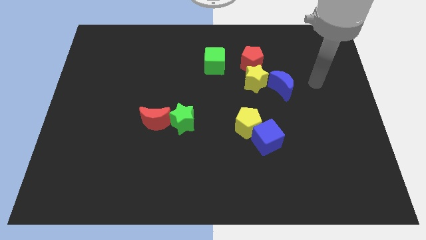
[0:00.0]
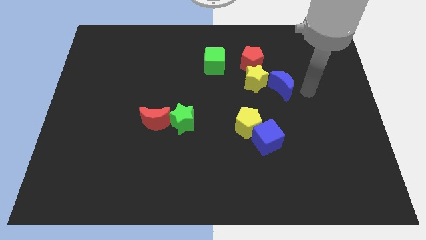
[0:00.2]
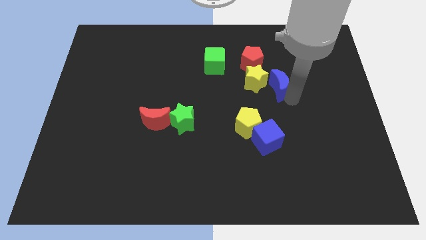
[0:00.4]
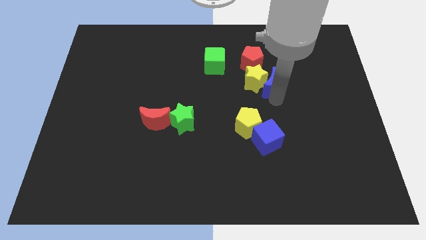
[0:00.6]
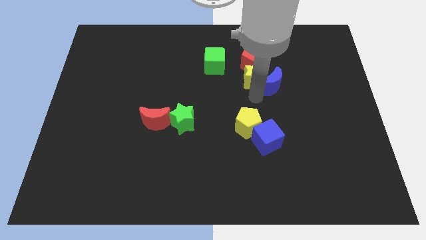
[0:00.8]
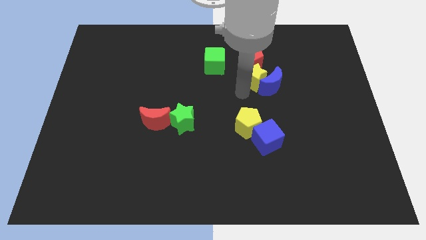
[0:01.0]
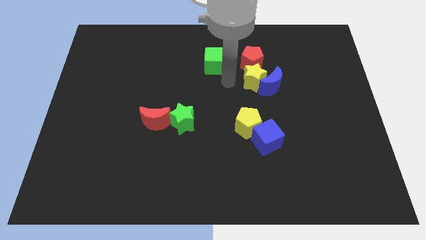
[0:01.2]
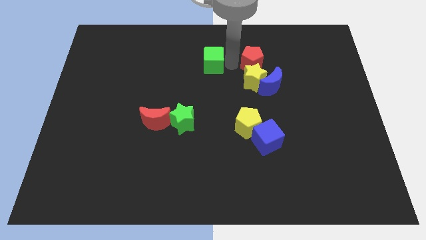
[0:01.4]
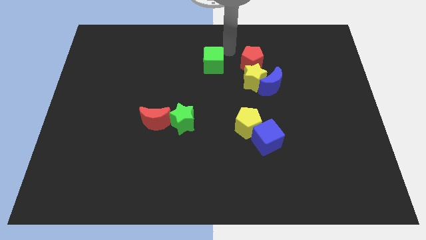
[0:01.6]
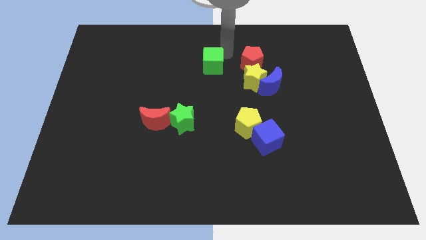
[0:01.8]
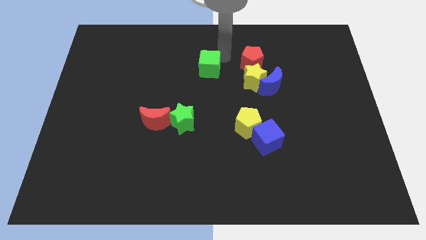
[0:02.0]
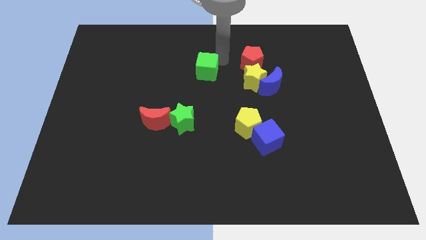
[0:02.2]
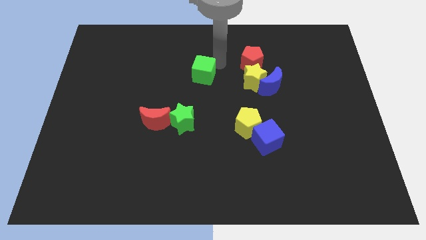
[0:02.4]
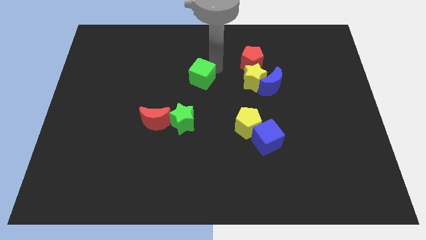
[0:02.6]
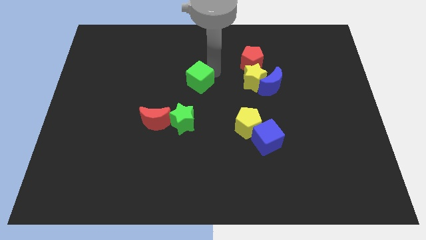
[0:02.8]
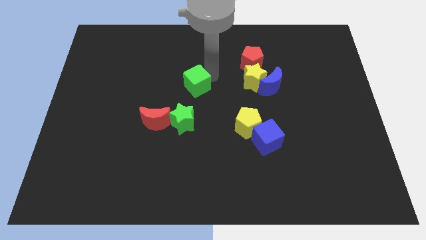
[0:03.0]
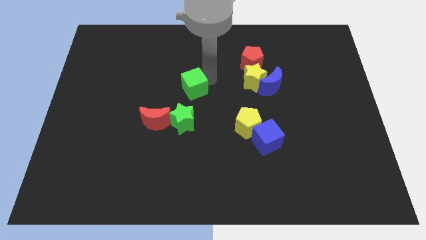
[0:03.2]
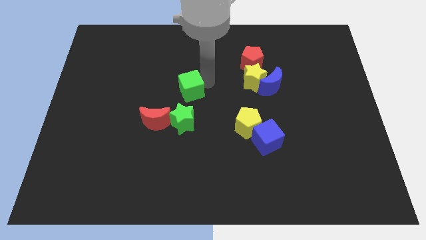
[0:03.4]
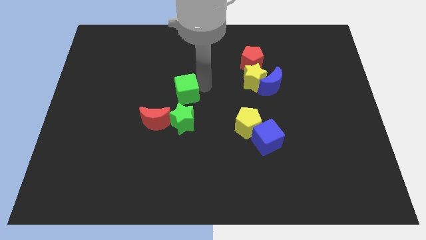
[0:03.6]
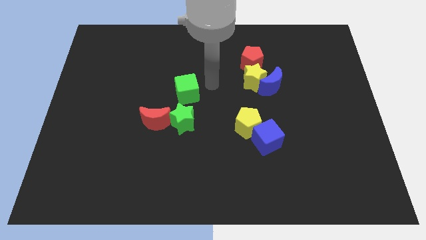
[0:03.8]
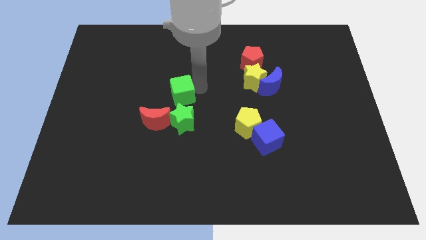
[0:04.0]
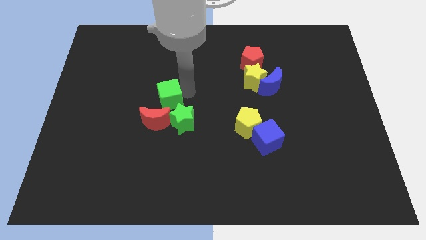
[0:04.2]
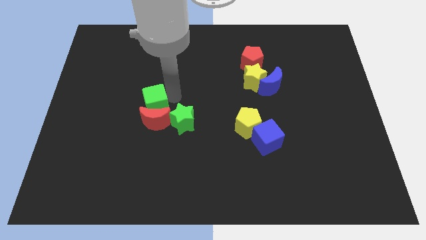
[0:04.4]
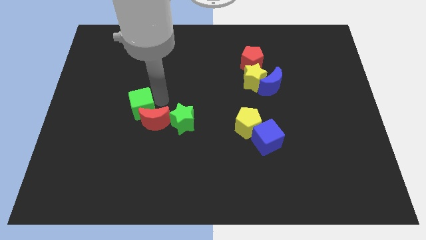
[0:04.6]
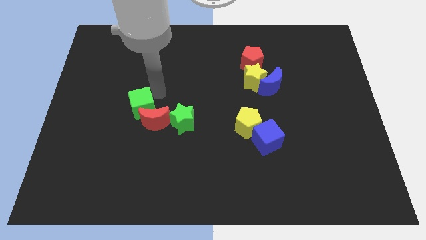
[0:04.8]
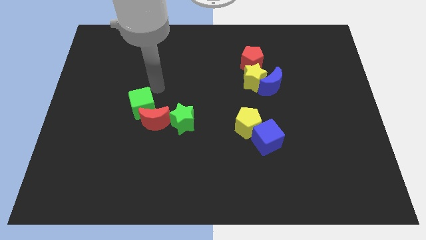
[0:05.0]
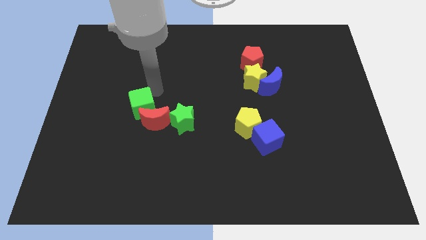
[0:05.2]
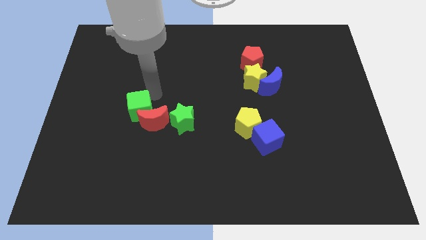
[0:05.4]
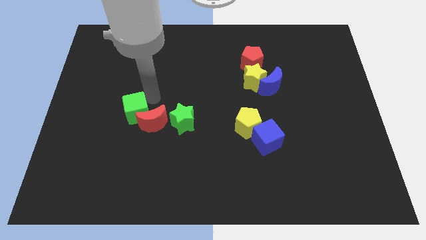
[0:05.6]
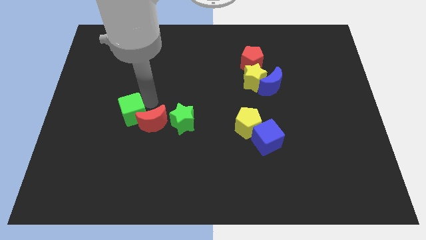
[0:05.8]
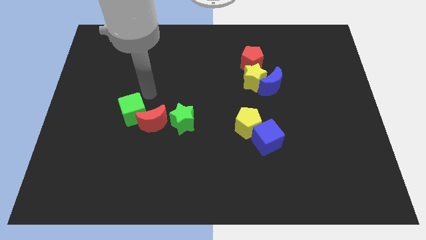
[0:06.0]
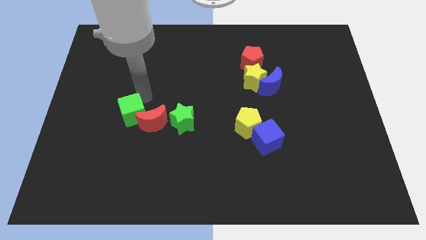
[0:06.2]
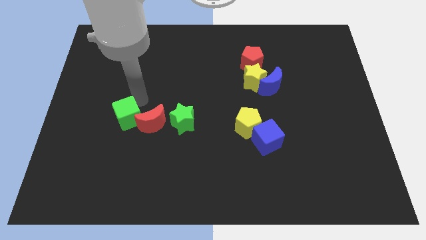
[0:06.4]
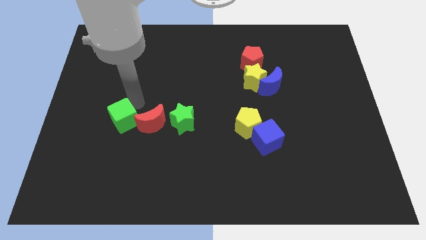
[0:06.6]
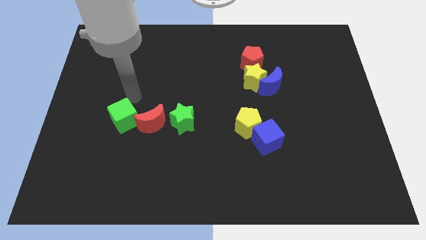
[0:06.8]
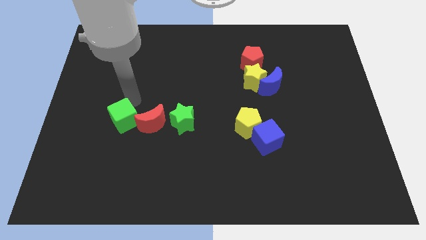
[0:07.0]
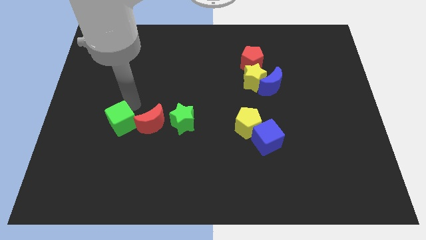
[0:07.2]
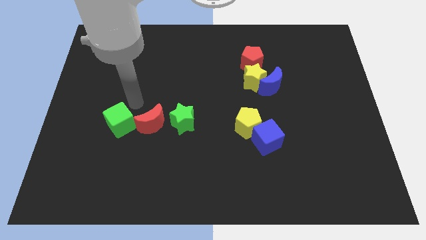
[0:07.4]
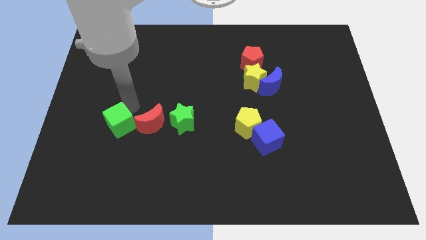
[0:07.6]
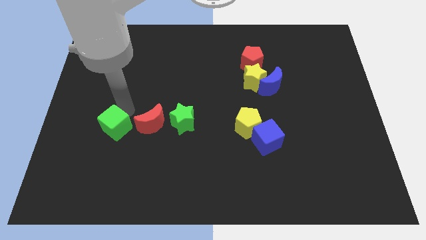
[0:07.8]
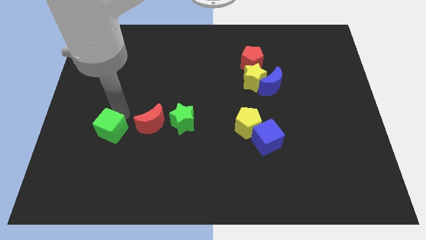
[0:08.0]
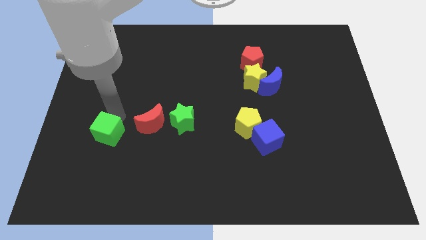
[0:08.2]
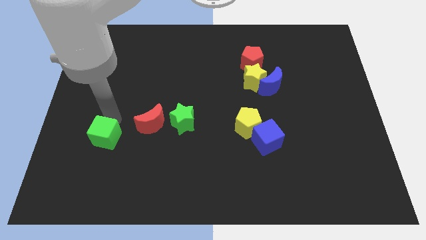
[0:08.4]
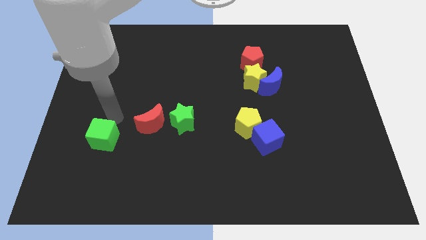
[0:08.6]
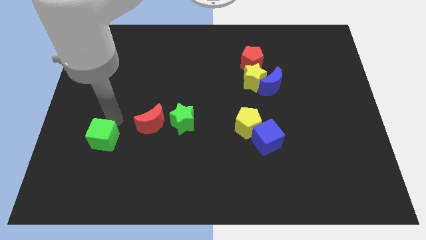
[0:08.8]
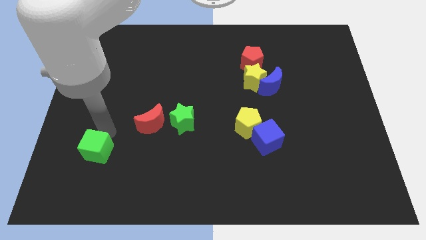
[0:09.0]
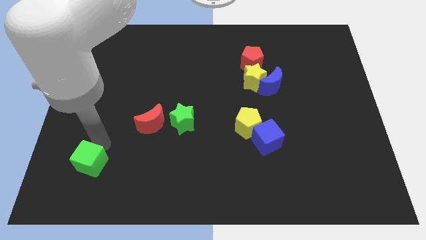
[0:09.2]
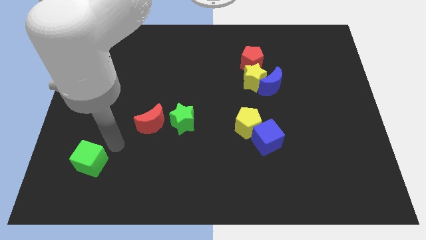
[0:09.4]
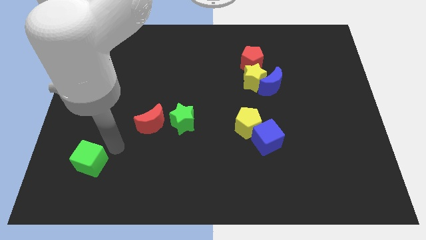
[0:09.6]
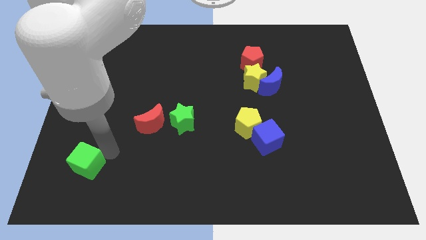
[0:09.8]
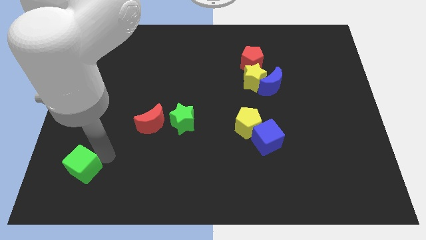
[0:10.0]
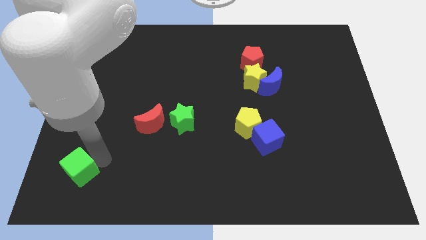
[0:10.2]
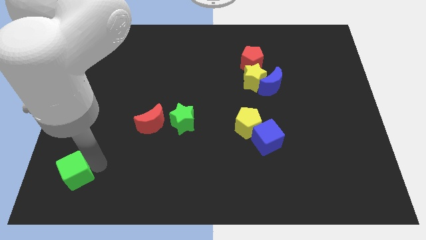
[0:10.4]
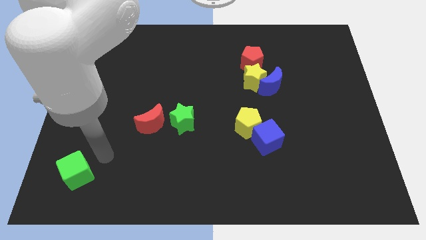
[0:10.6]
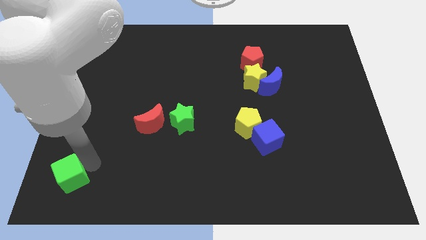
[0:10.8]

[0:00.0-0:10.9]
move the green cube to the bottom left corner

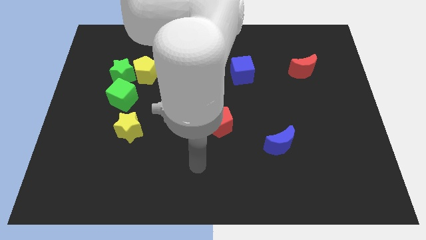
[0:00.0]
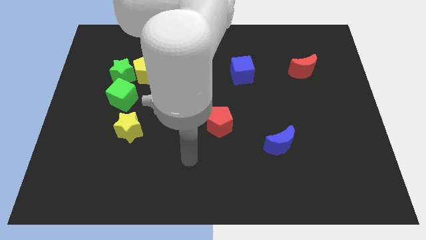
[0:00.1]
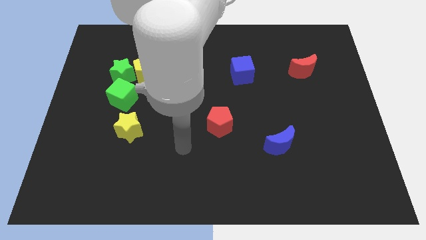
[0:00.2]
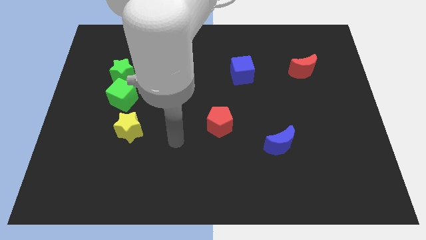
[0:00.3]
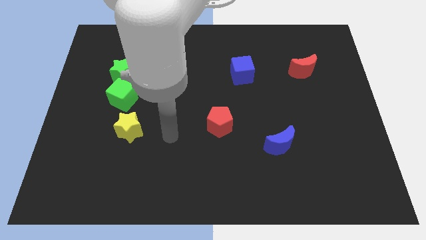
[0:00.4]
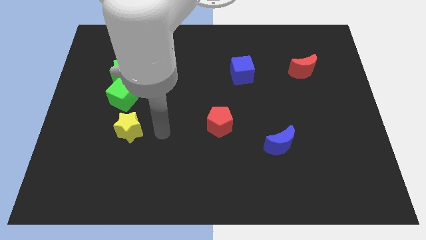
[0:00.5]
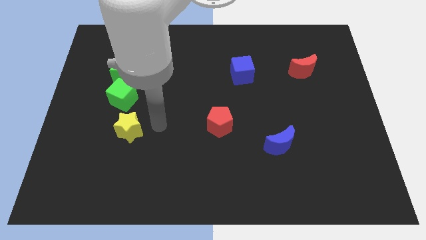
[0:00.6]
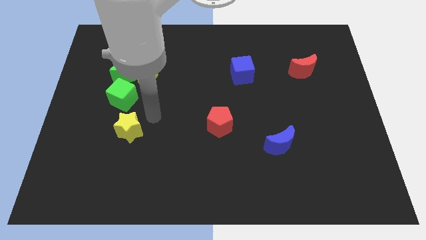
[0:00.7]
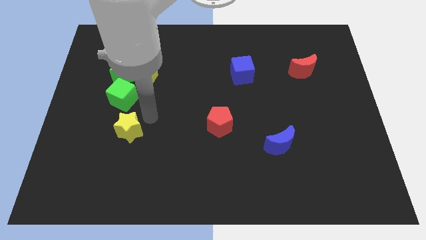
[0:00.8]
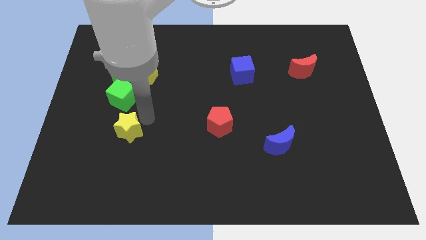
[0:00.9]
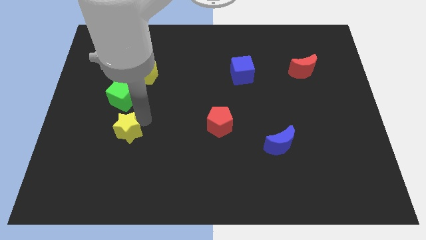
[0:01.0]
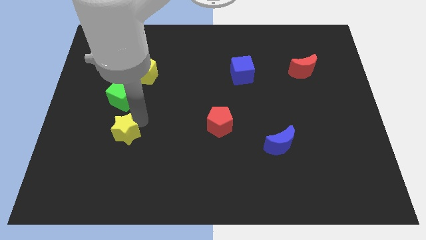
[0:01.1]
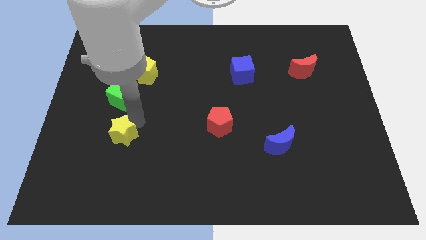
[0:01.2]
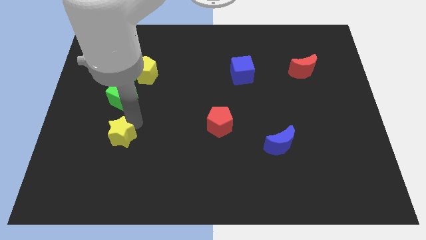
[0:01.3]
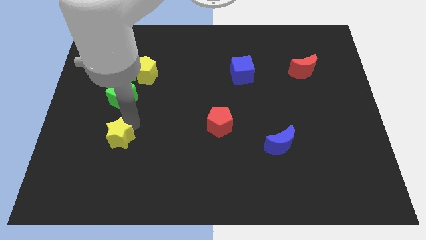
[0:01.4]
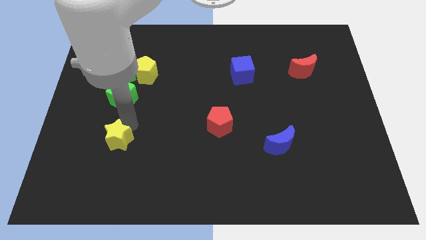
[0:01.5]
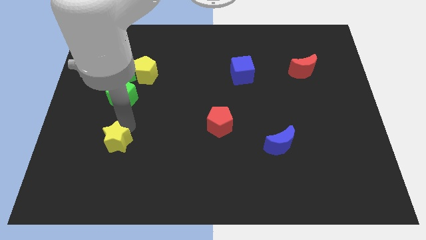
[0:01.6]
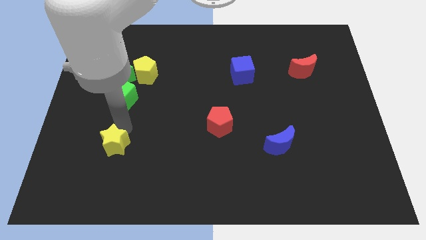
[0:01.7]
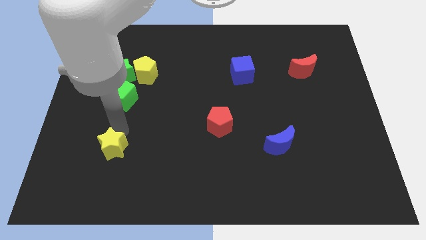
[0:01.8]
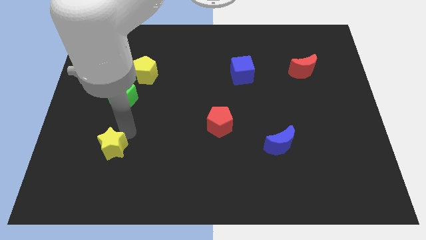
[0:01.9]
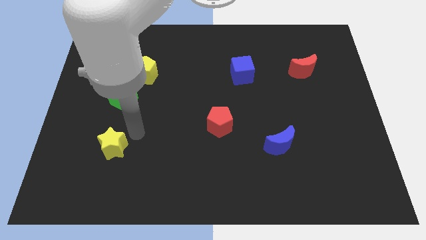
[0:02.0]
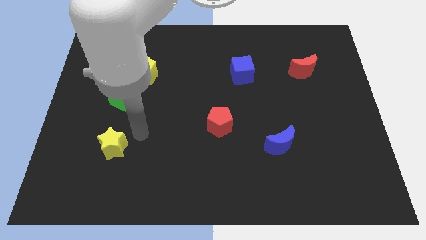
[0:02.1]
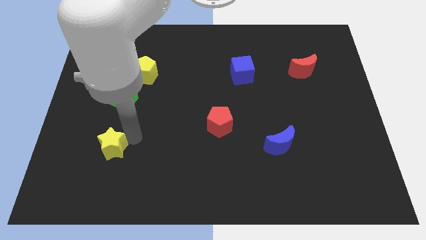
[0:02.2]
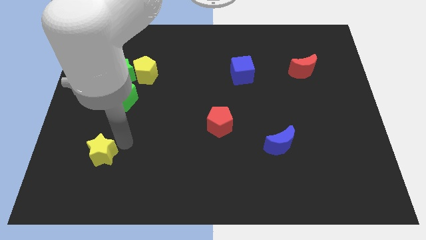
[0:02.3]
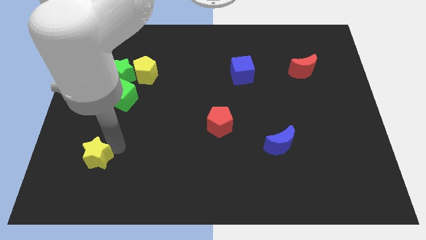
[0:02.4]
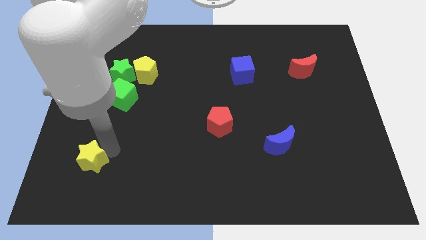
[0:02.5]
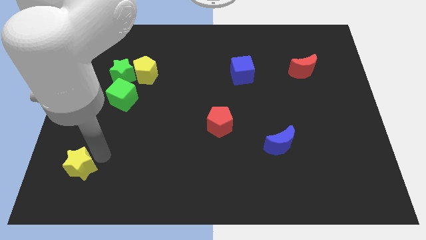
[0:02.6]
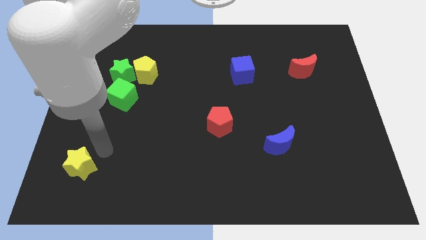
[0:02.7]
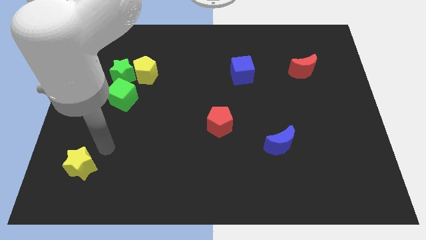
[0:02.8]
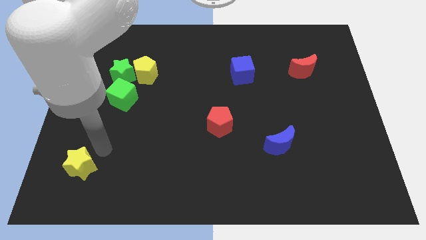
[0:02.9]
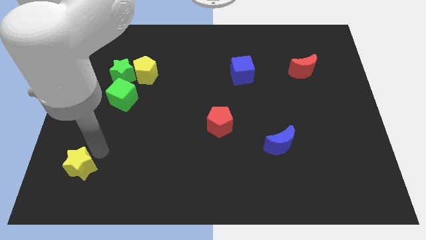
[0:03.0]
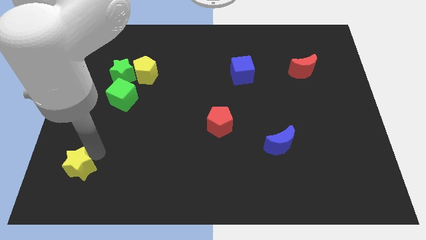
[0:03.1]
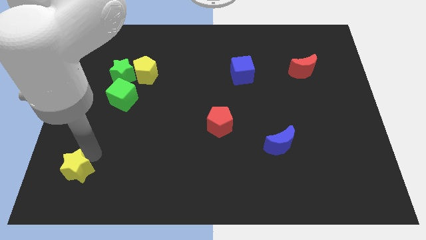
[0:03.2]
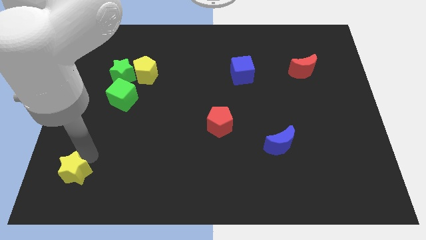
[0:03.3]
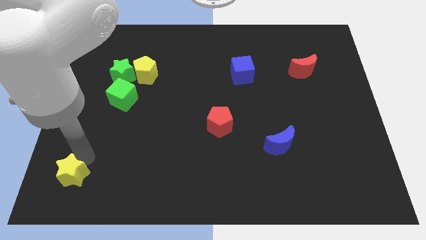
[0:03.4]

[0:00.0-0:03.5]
push the yellow star to the bottom left of the board
